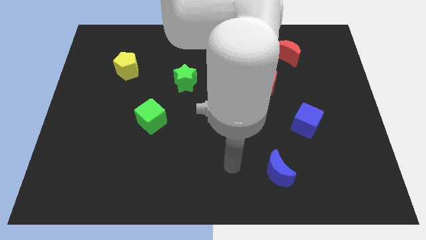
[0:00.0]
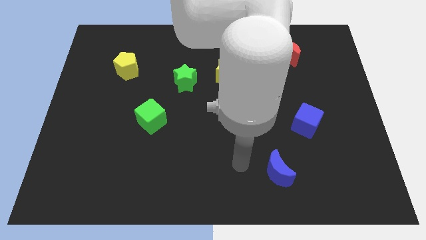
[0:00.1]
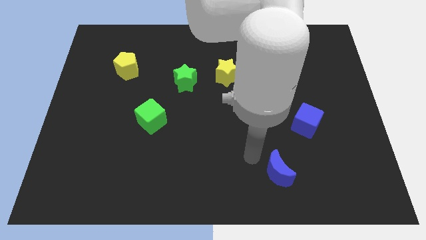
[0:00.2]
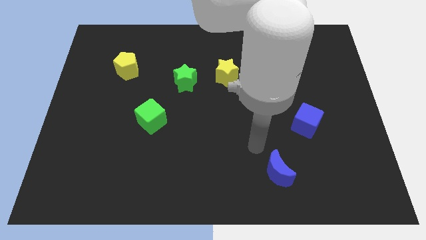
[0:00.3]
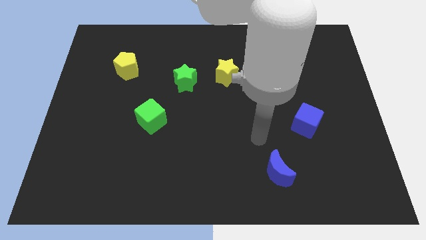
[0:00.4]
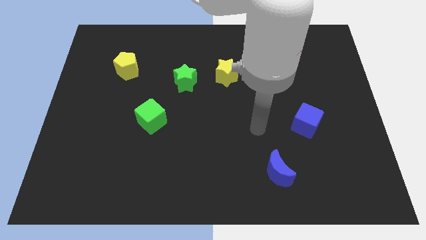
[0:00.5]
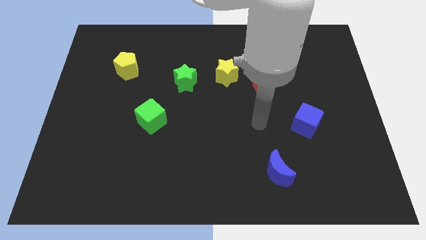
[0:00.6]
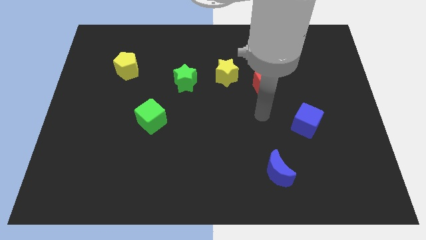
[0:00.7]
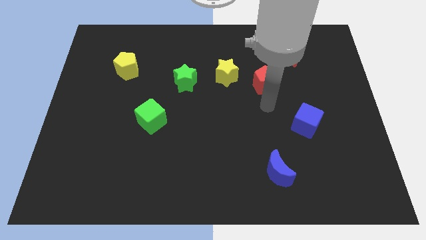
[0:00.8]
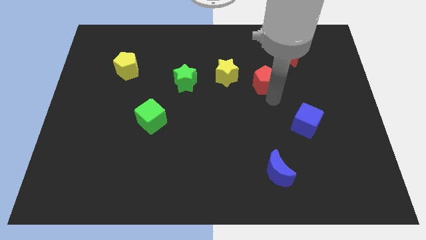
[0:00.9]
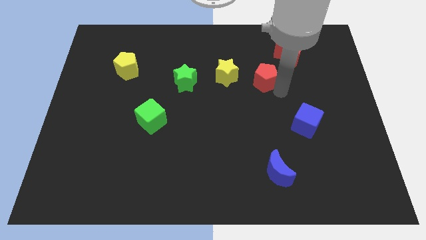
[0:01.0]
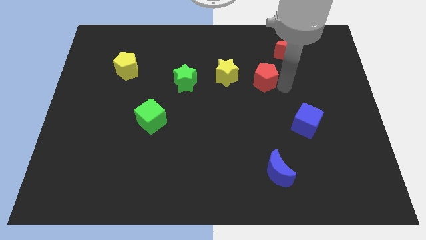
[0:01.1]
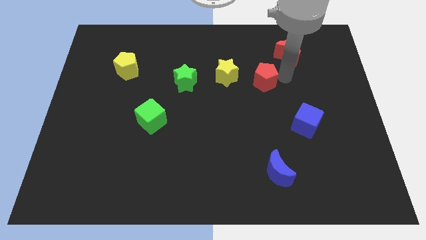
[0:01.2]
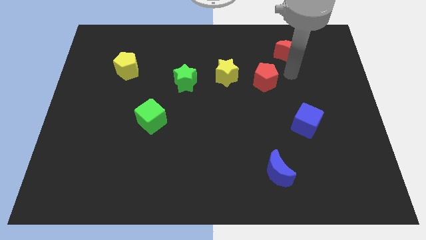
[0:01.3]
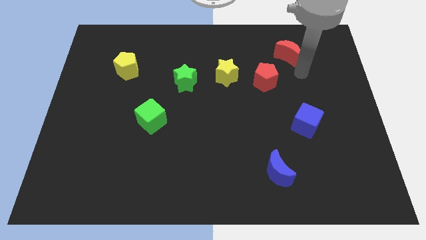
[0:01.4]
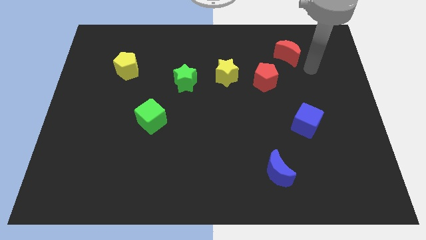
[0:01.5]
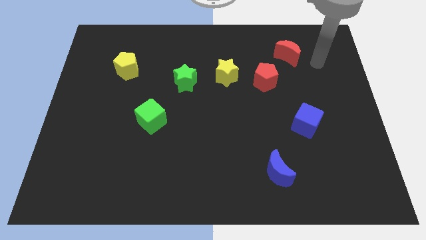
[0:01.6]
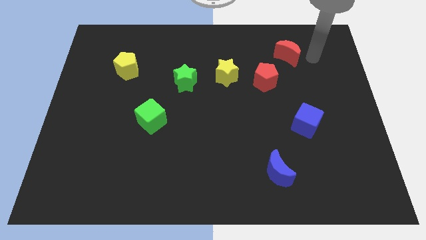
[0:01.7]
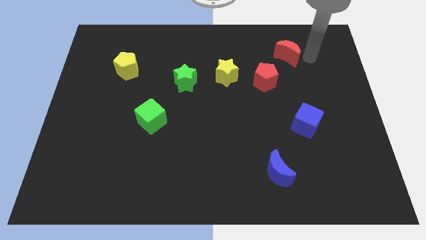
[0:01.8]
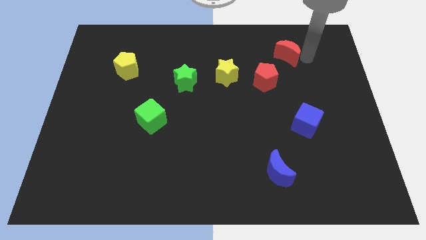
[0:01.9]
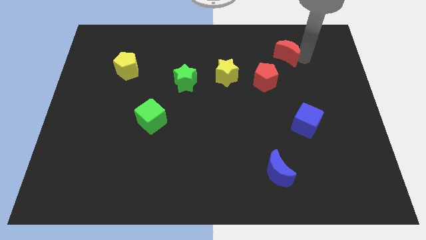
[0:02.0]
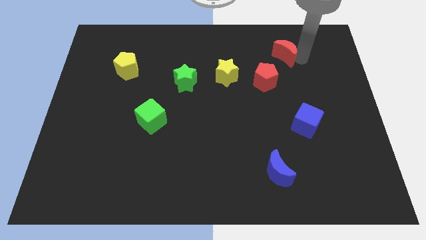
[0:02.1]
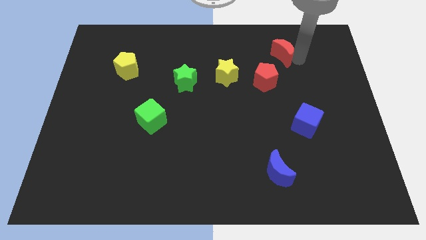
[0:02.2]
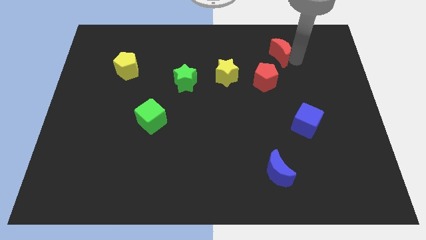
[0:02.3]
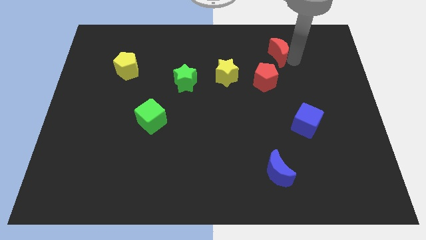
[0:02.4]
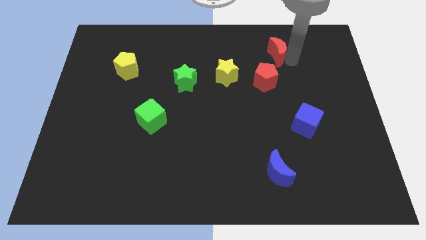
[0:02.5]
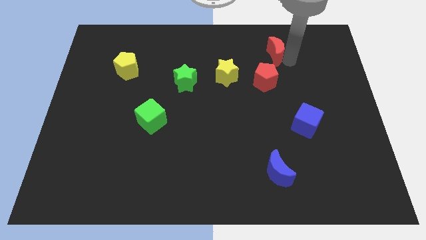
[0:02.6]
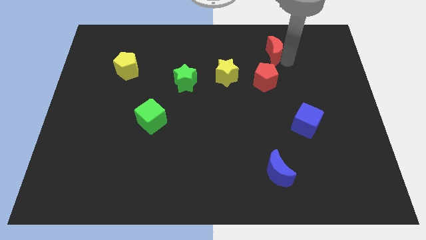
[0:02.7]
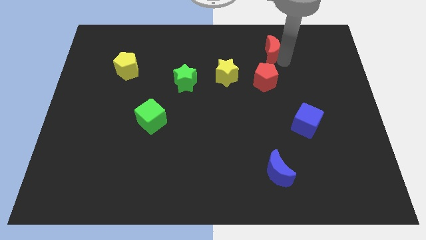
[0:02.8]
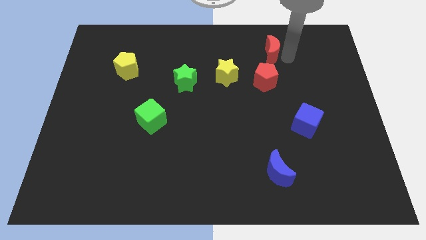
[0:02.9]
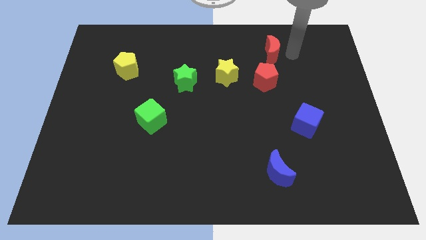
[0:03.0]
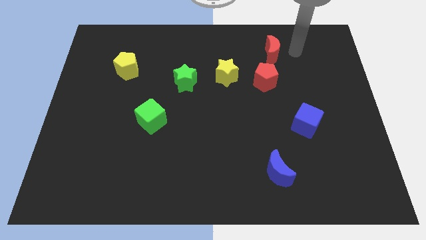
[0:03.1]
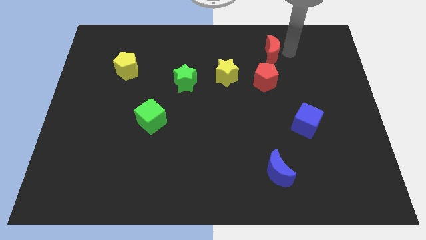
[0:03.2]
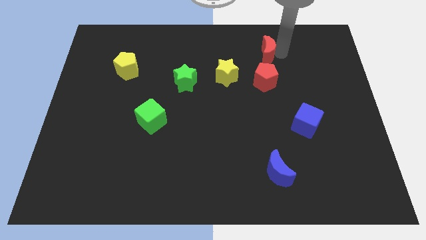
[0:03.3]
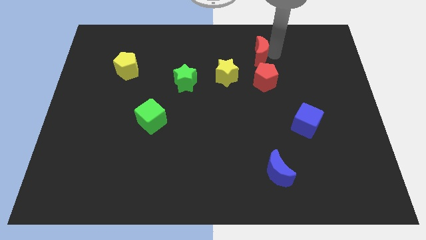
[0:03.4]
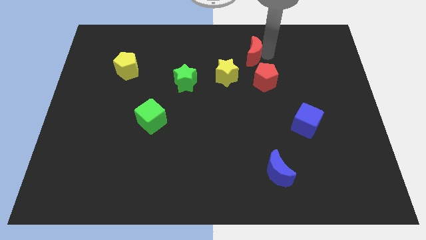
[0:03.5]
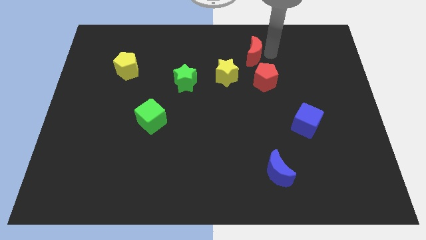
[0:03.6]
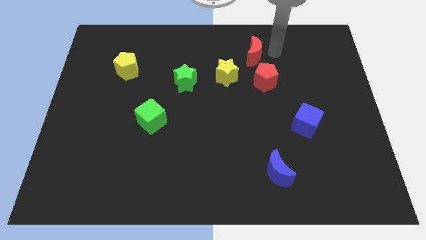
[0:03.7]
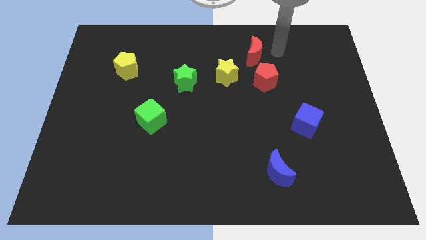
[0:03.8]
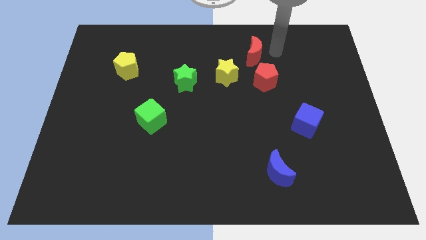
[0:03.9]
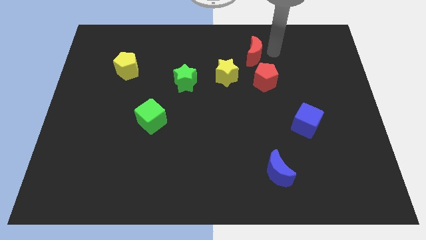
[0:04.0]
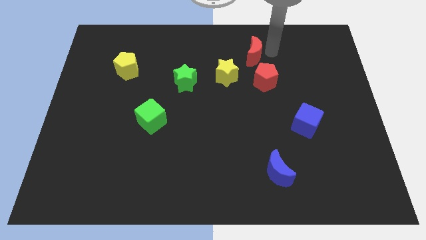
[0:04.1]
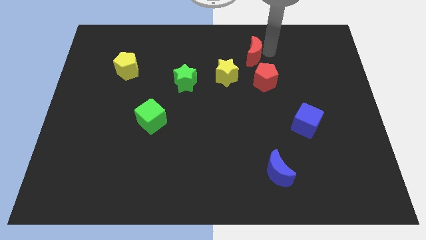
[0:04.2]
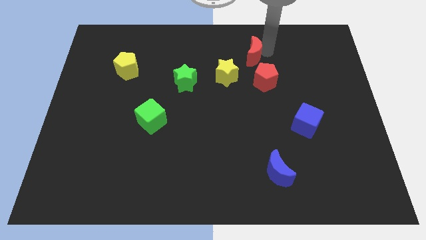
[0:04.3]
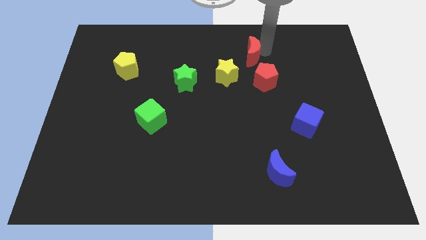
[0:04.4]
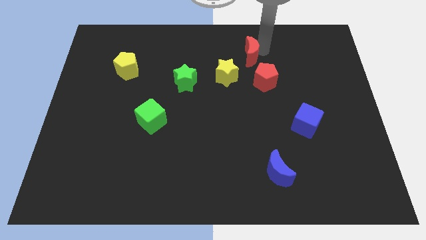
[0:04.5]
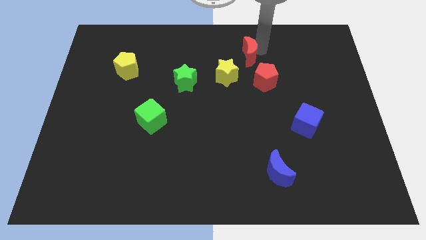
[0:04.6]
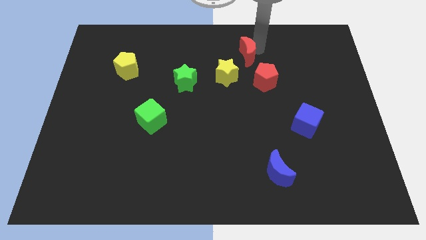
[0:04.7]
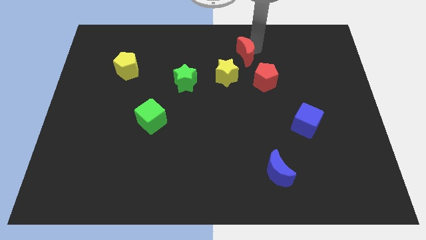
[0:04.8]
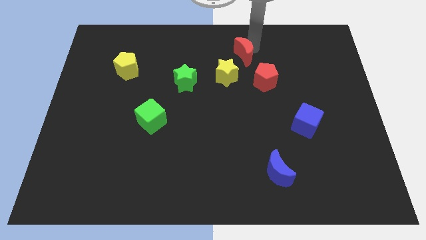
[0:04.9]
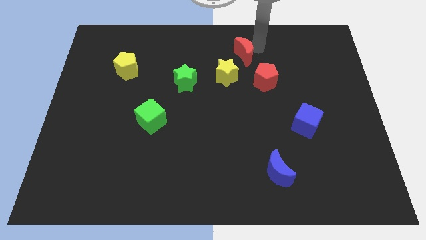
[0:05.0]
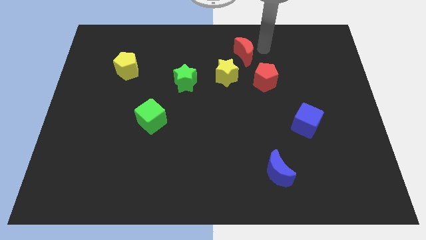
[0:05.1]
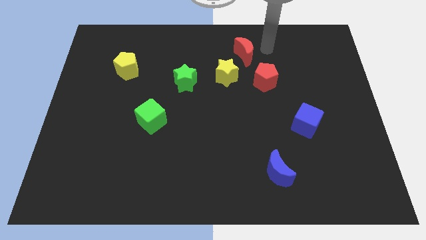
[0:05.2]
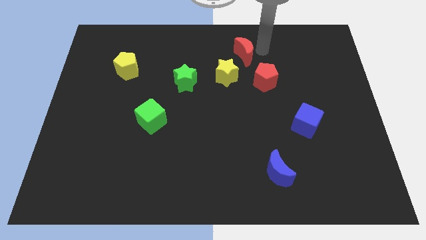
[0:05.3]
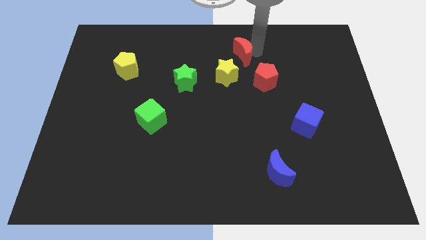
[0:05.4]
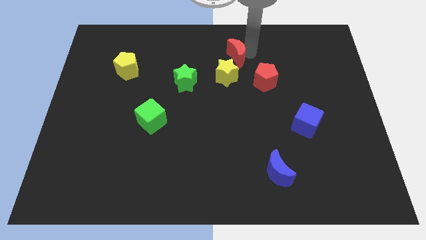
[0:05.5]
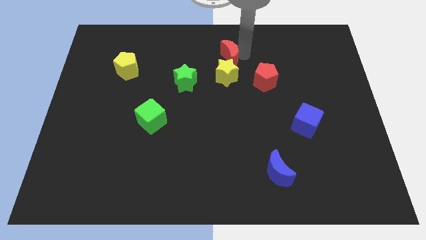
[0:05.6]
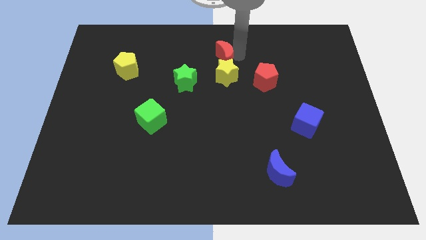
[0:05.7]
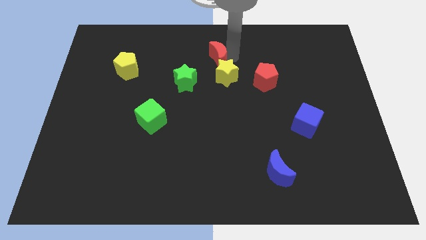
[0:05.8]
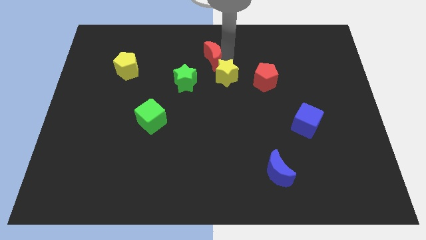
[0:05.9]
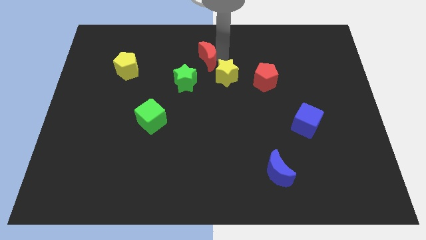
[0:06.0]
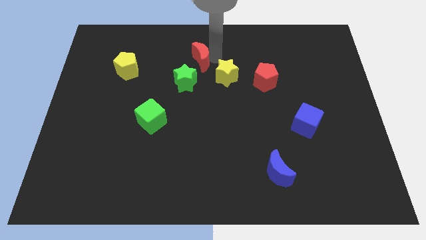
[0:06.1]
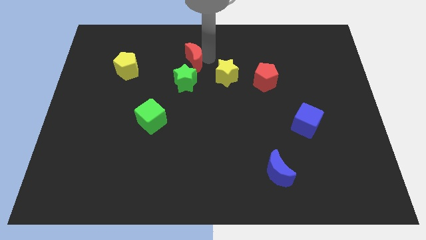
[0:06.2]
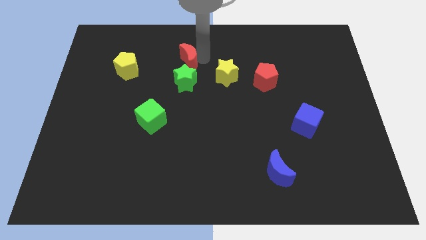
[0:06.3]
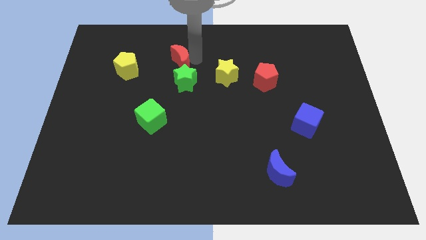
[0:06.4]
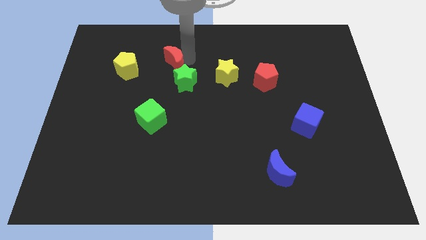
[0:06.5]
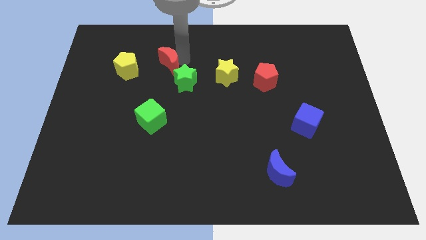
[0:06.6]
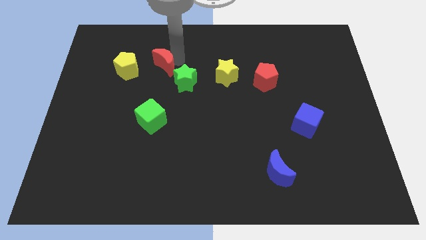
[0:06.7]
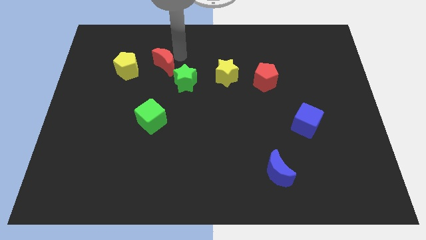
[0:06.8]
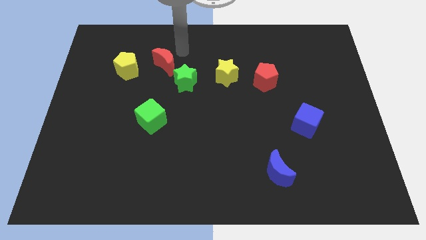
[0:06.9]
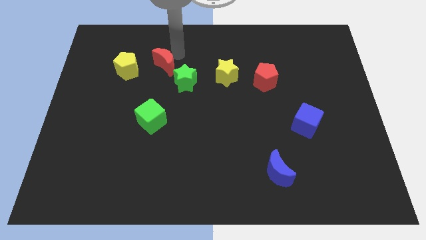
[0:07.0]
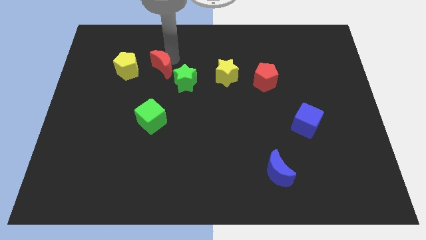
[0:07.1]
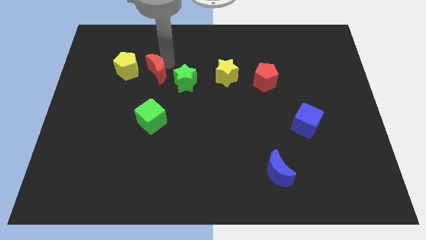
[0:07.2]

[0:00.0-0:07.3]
put the red moon to the left of the green star
